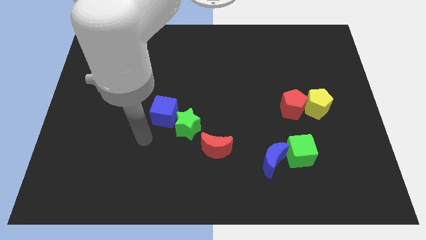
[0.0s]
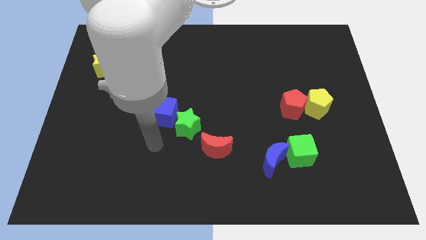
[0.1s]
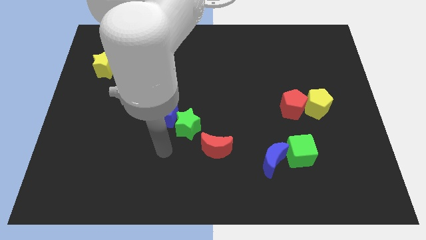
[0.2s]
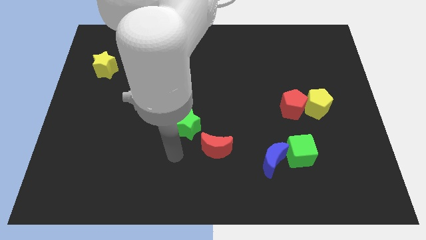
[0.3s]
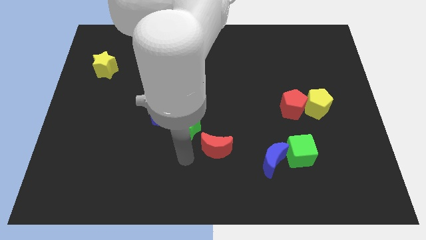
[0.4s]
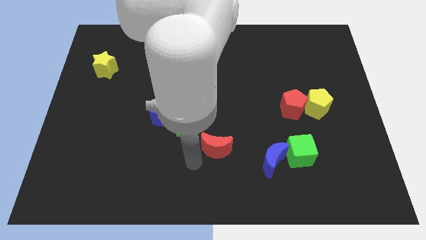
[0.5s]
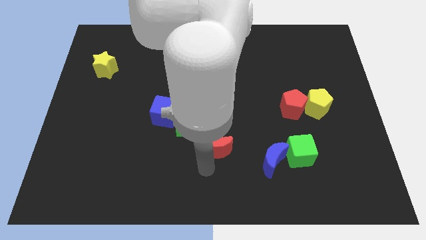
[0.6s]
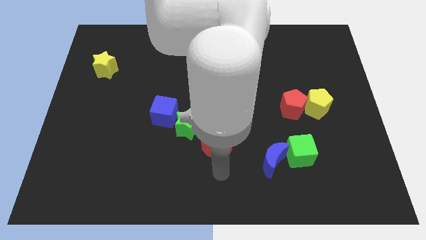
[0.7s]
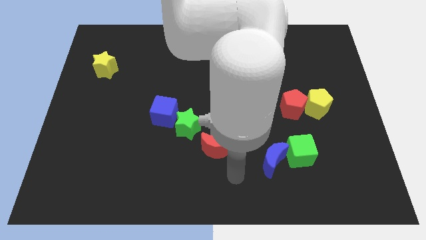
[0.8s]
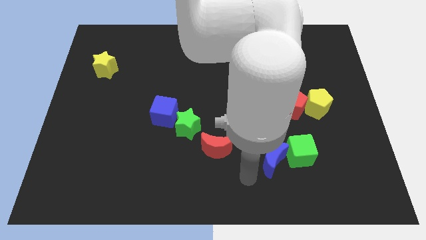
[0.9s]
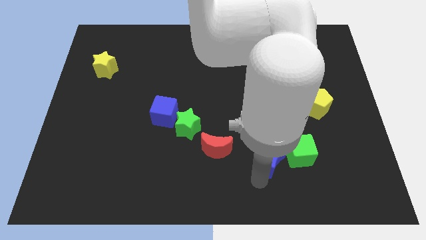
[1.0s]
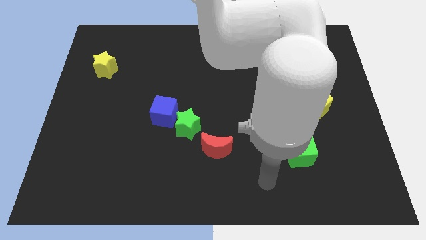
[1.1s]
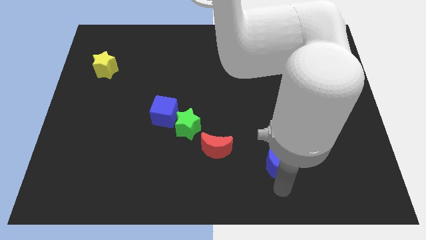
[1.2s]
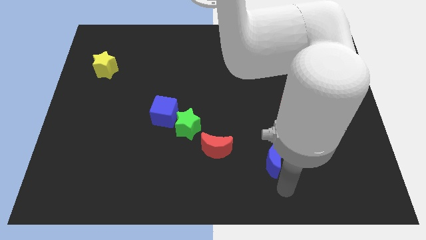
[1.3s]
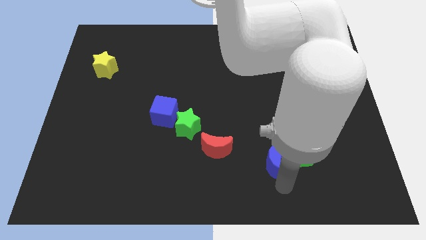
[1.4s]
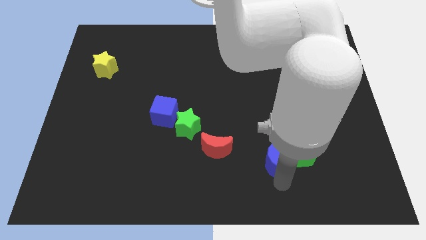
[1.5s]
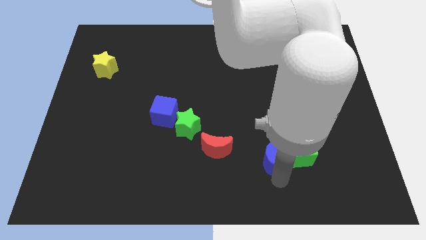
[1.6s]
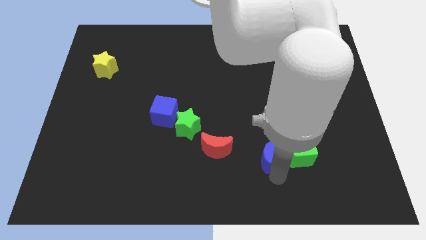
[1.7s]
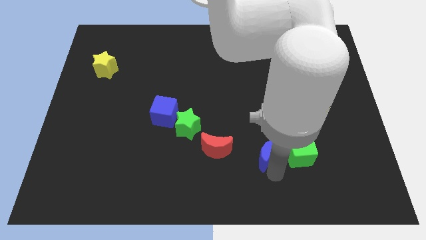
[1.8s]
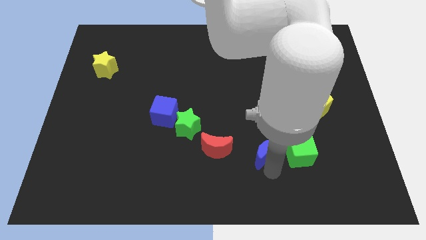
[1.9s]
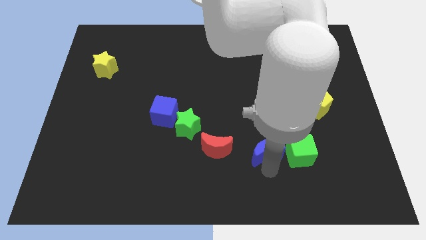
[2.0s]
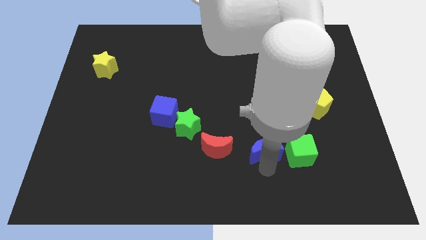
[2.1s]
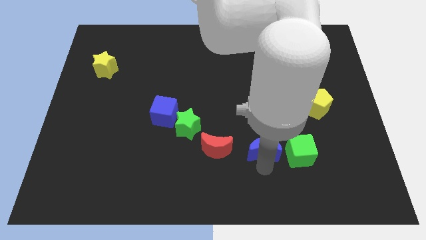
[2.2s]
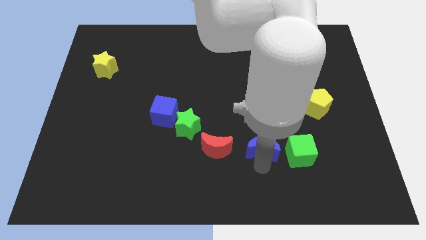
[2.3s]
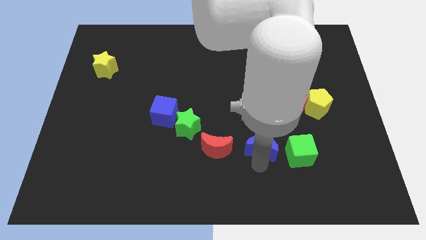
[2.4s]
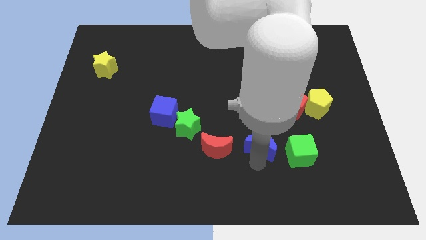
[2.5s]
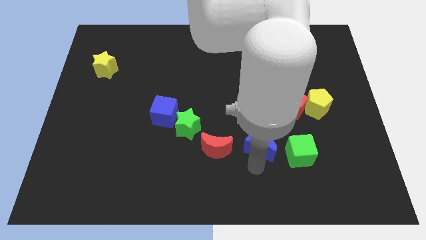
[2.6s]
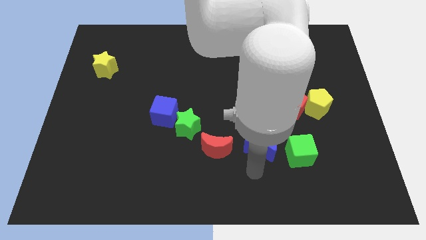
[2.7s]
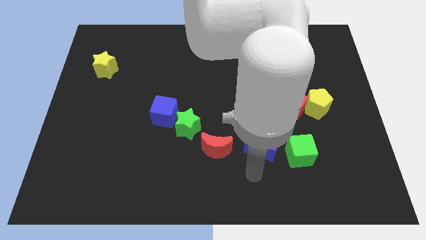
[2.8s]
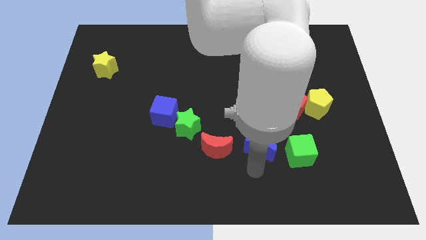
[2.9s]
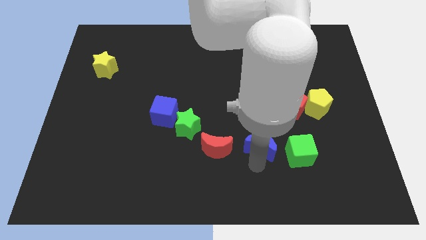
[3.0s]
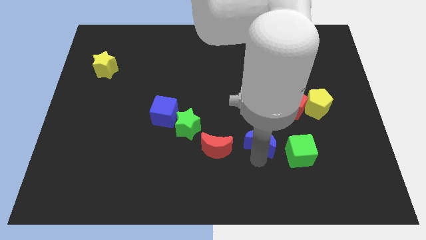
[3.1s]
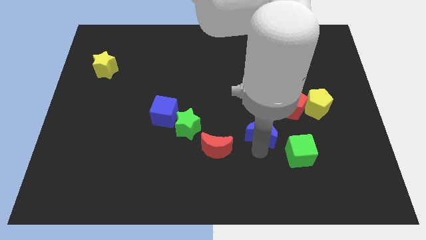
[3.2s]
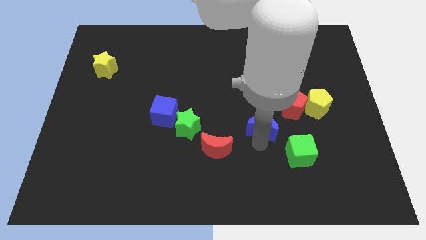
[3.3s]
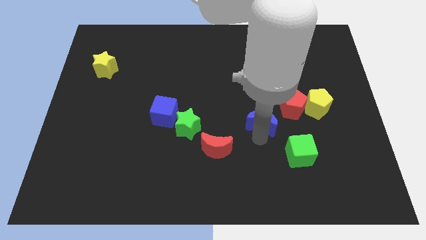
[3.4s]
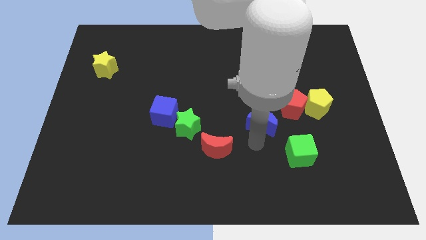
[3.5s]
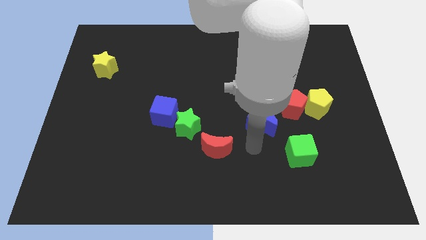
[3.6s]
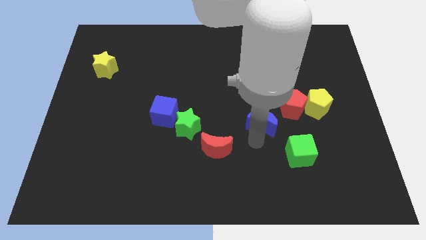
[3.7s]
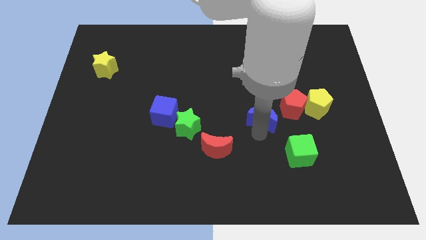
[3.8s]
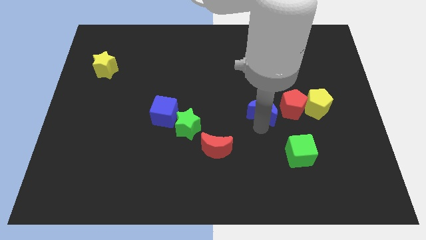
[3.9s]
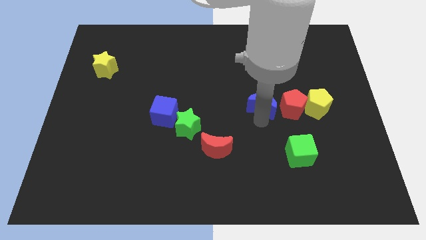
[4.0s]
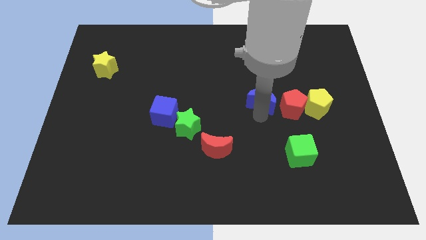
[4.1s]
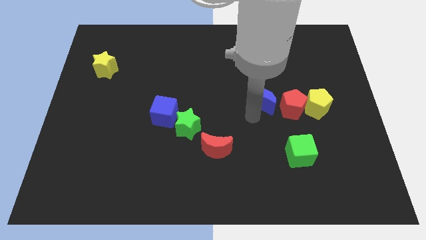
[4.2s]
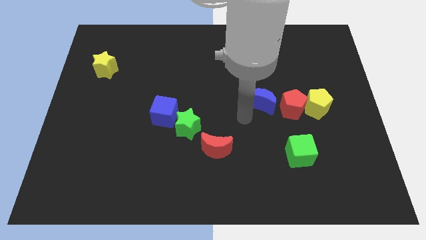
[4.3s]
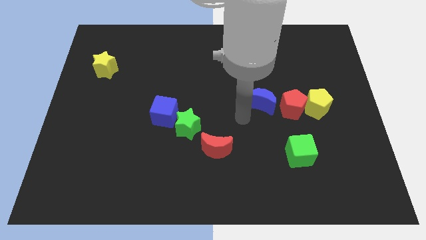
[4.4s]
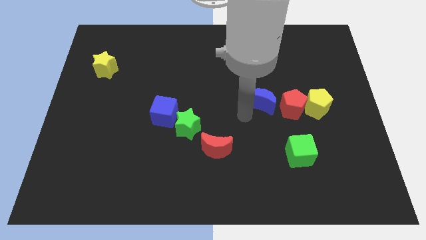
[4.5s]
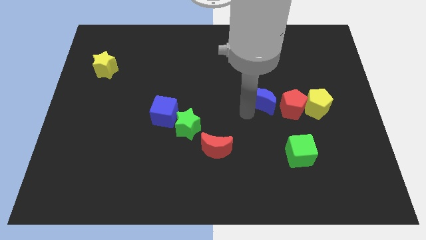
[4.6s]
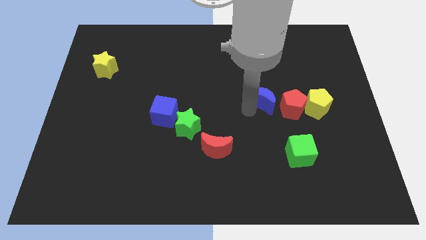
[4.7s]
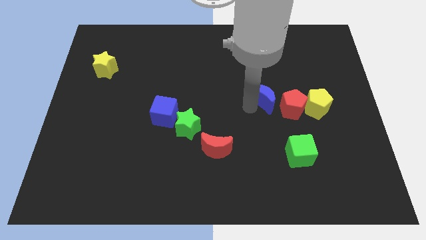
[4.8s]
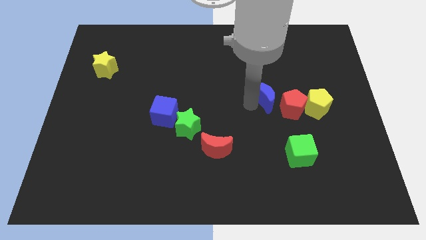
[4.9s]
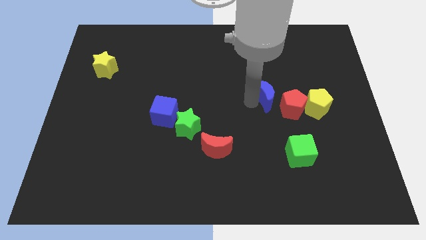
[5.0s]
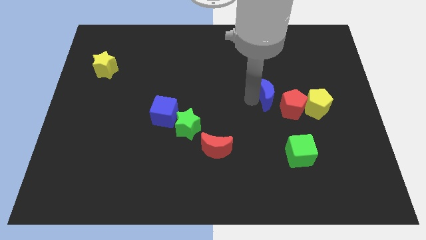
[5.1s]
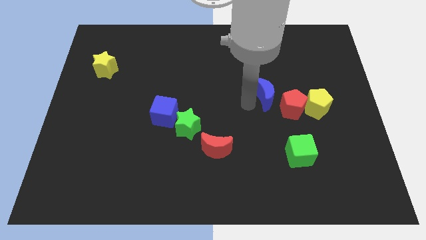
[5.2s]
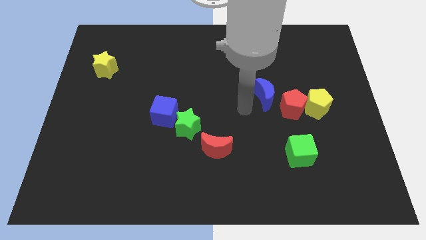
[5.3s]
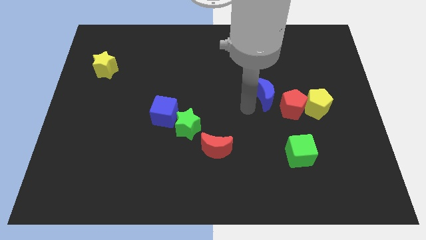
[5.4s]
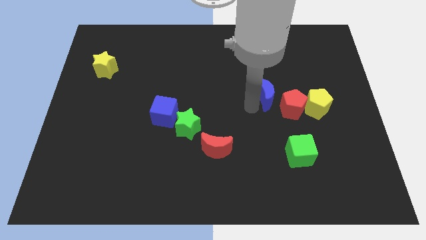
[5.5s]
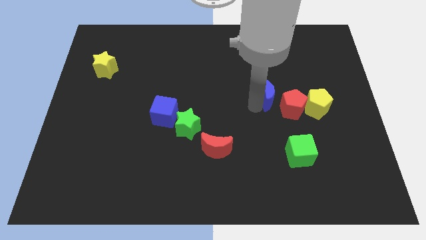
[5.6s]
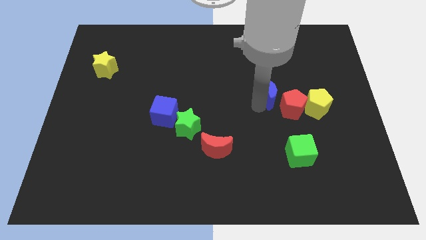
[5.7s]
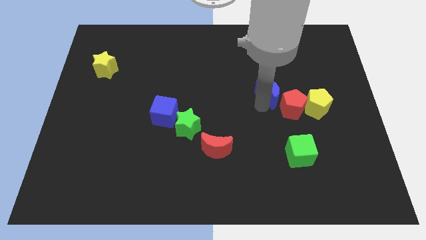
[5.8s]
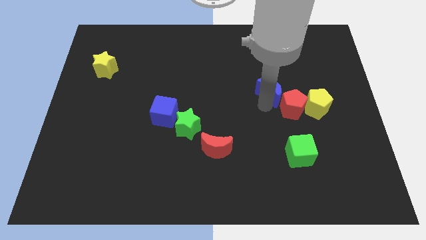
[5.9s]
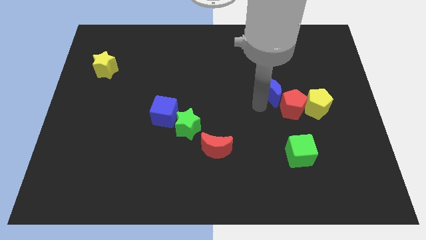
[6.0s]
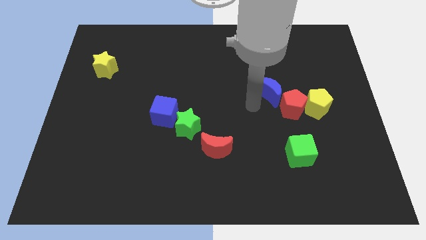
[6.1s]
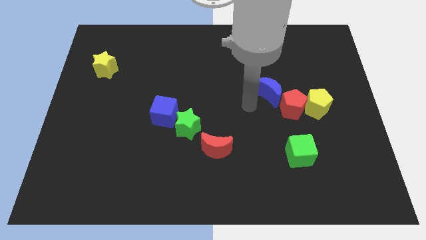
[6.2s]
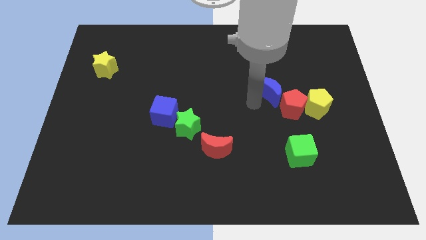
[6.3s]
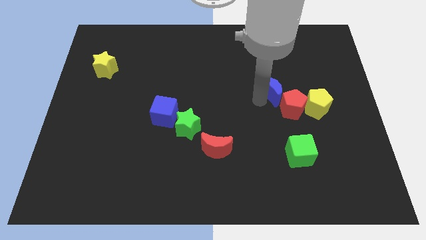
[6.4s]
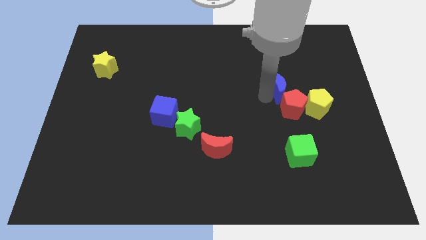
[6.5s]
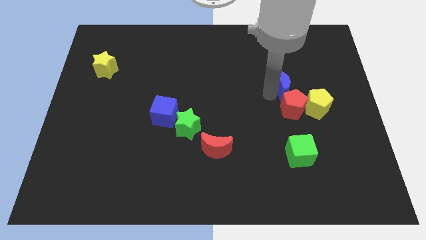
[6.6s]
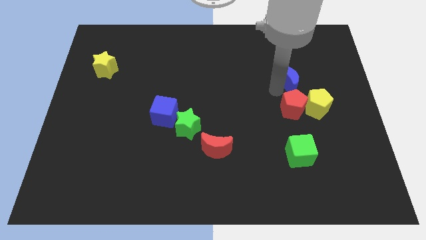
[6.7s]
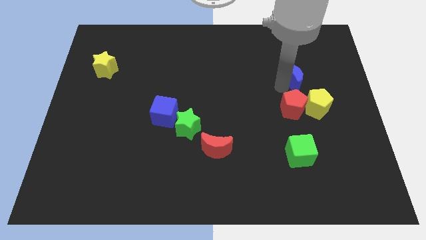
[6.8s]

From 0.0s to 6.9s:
put the blue moon above the yellow pentagon

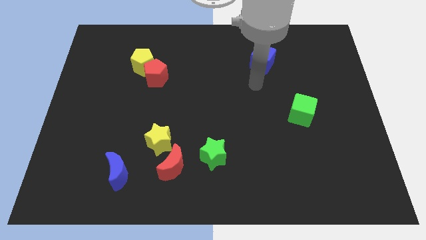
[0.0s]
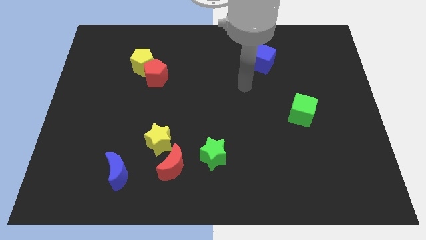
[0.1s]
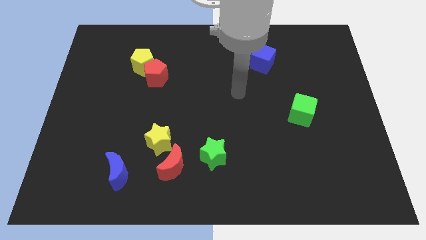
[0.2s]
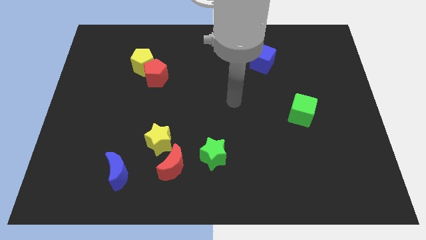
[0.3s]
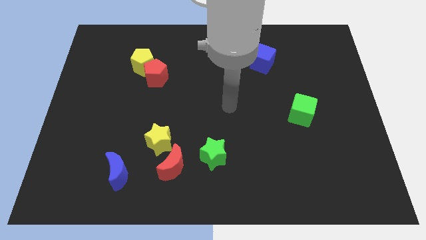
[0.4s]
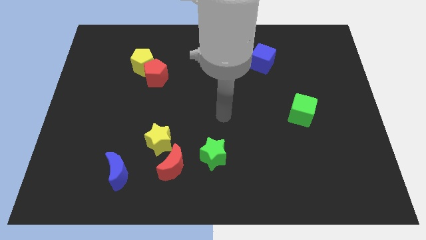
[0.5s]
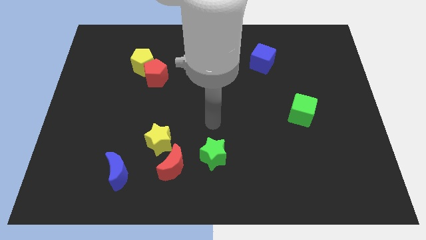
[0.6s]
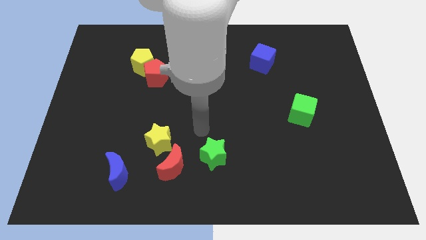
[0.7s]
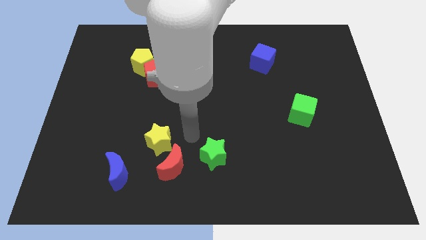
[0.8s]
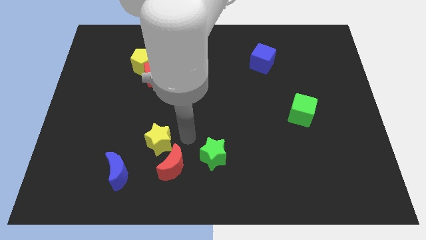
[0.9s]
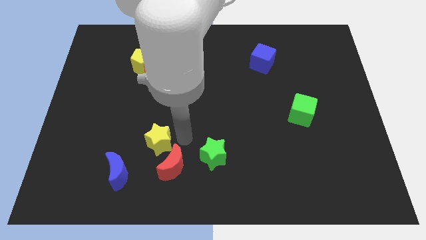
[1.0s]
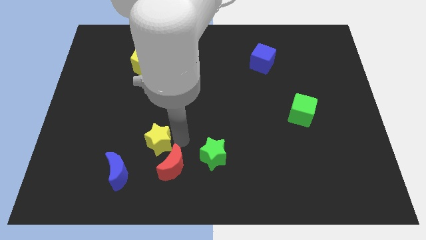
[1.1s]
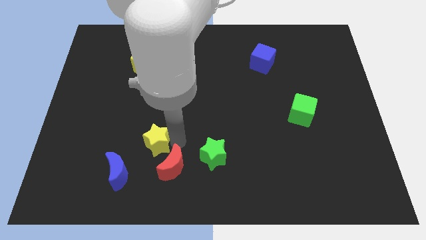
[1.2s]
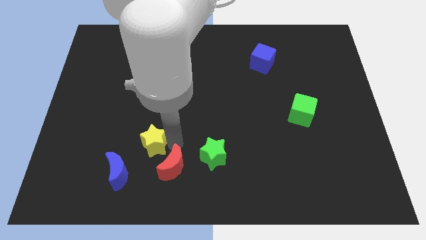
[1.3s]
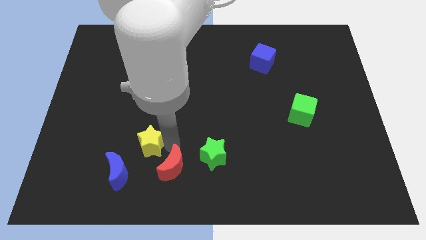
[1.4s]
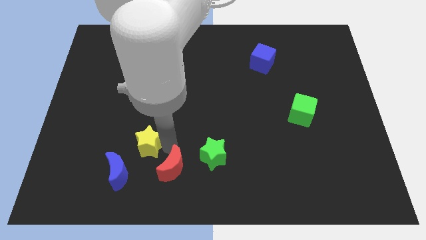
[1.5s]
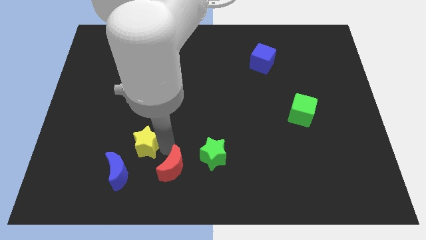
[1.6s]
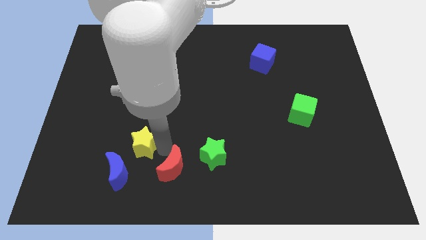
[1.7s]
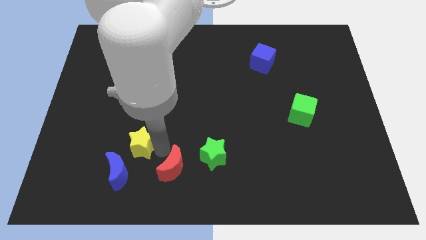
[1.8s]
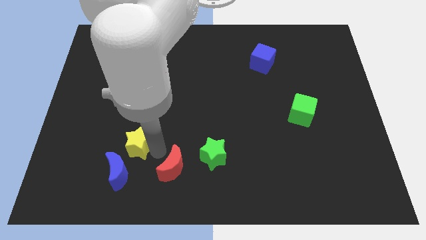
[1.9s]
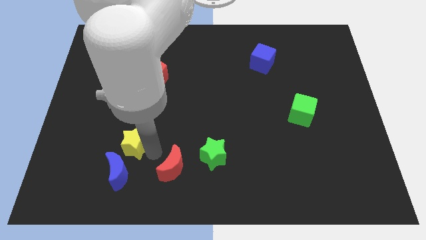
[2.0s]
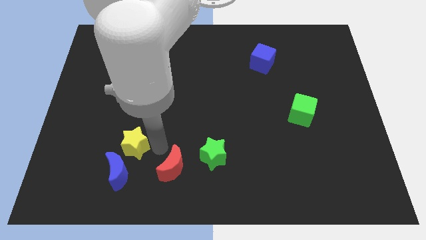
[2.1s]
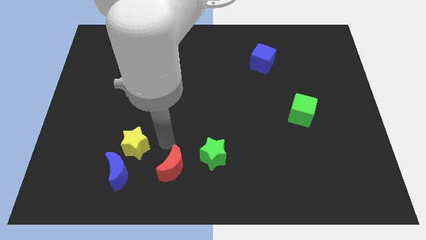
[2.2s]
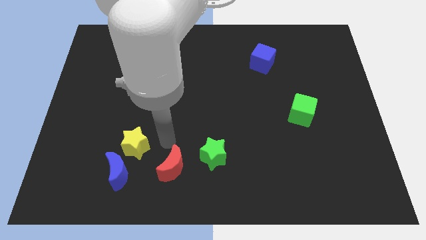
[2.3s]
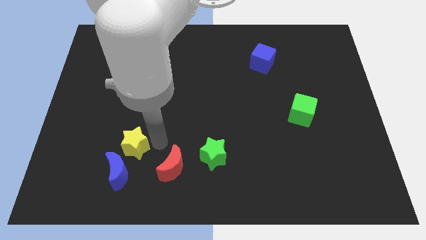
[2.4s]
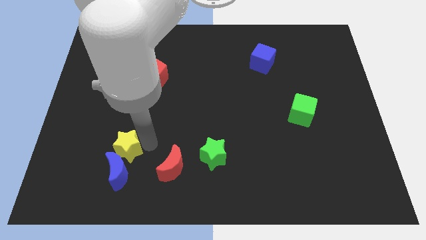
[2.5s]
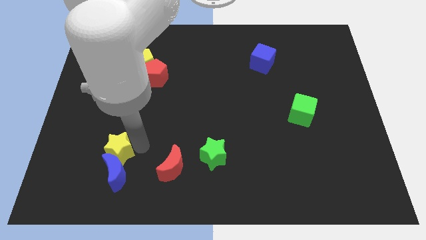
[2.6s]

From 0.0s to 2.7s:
put the yellow star to the top left side of the blue moon
